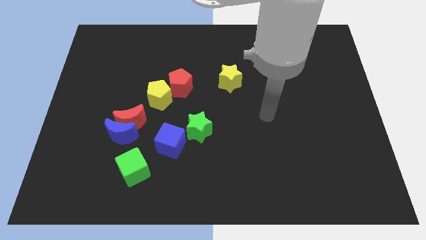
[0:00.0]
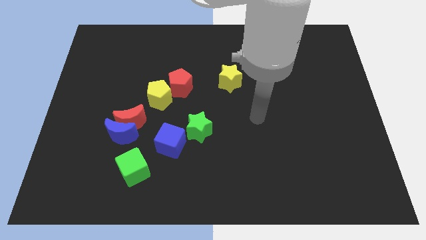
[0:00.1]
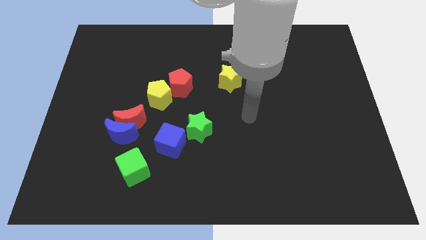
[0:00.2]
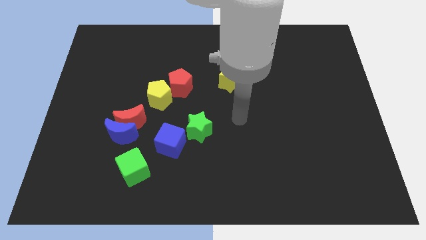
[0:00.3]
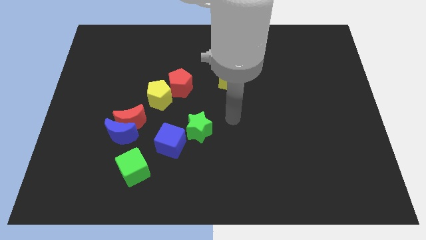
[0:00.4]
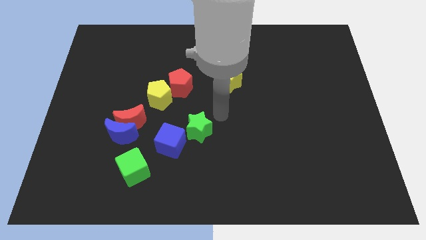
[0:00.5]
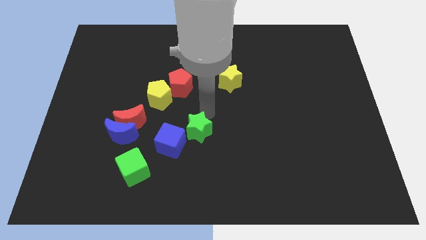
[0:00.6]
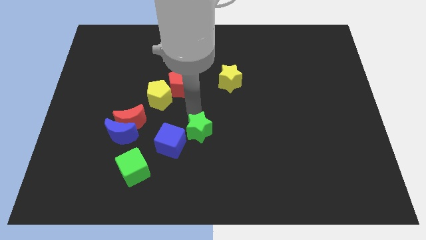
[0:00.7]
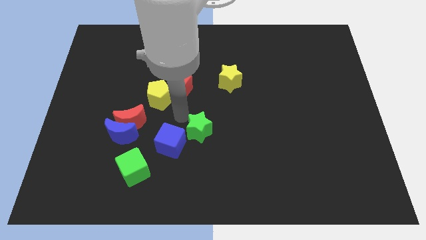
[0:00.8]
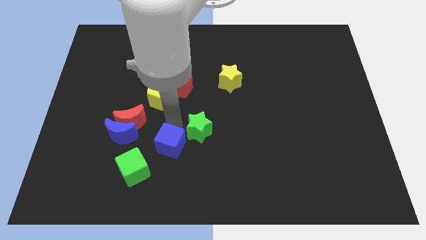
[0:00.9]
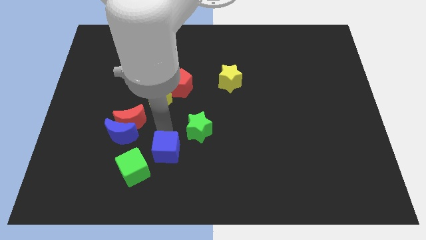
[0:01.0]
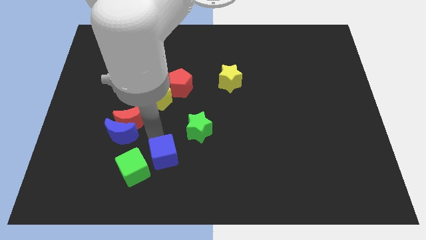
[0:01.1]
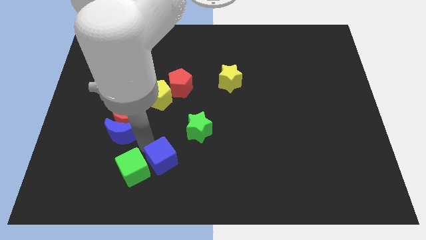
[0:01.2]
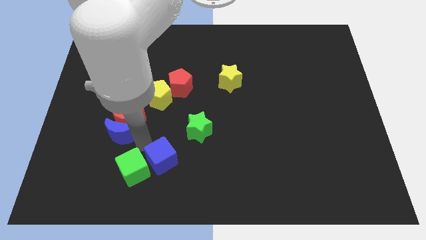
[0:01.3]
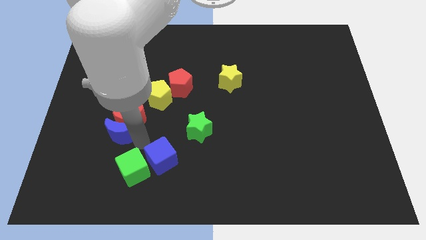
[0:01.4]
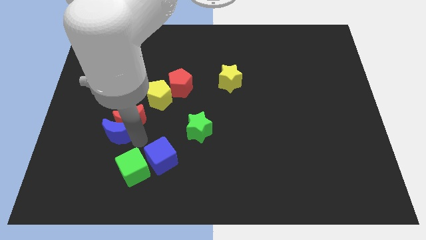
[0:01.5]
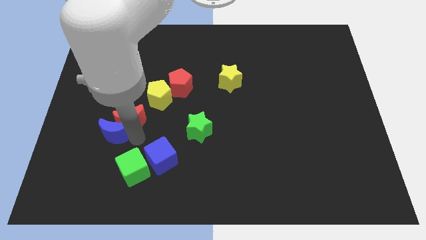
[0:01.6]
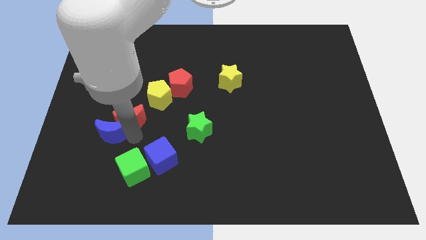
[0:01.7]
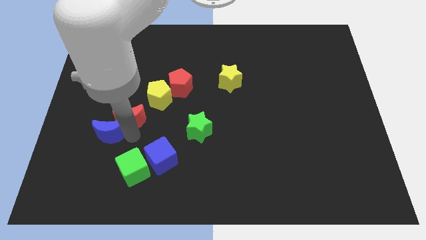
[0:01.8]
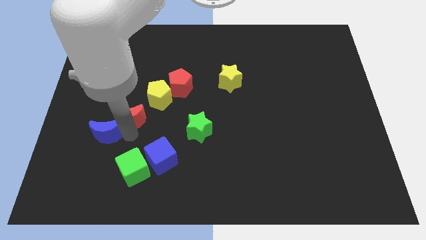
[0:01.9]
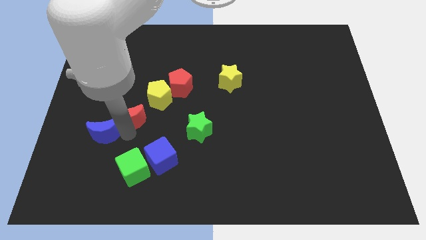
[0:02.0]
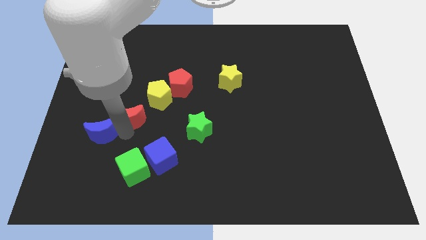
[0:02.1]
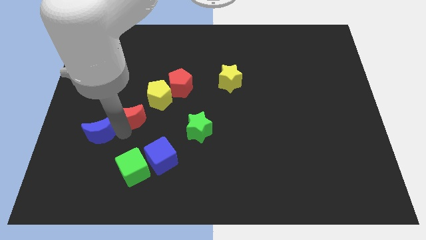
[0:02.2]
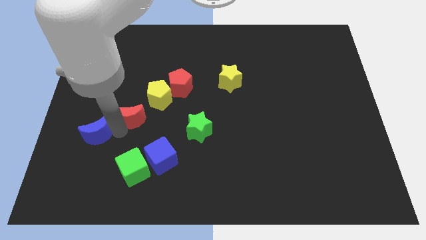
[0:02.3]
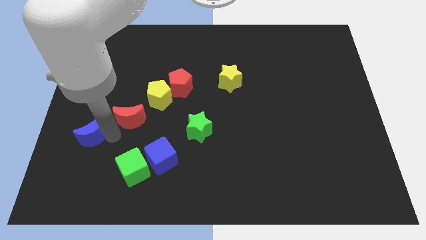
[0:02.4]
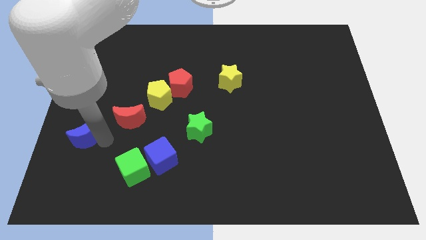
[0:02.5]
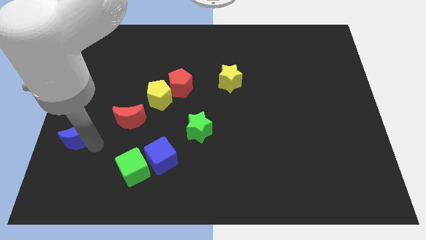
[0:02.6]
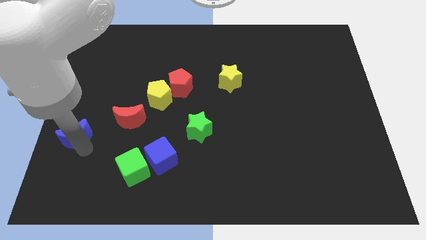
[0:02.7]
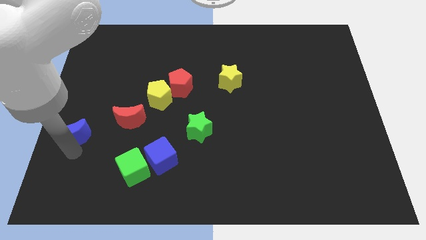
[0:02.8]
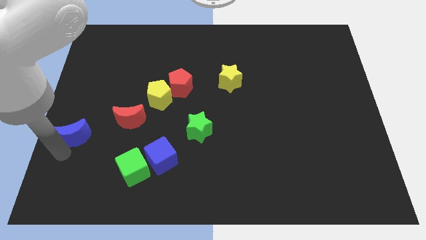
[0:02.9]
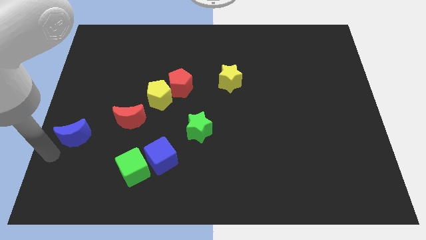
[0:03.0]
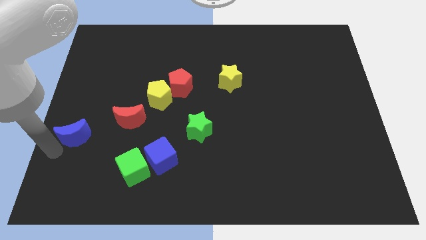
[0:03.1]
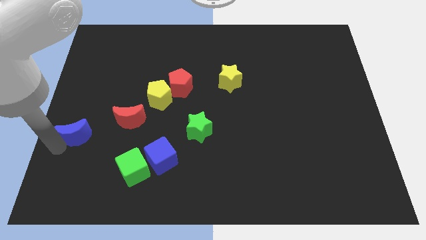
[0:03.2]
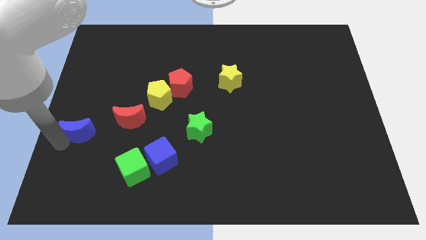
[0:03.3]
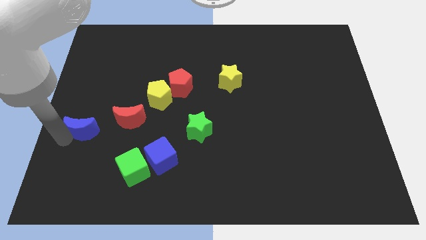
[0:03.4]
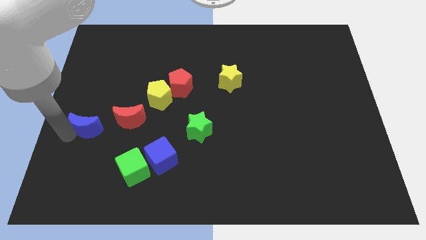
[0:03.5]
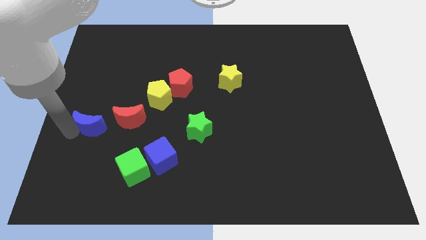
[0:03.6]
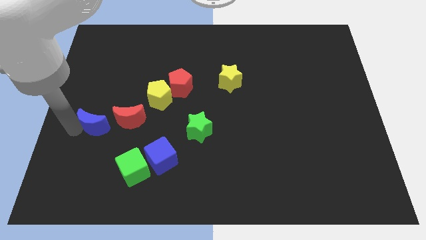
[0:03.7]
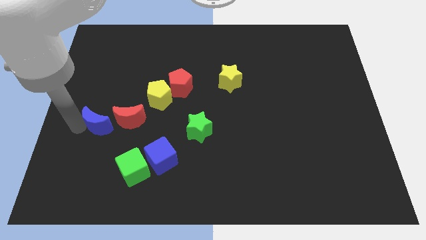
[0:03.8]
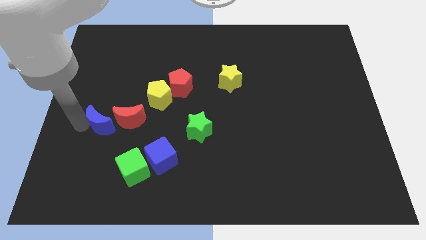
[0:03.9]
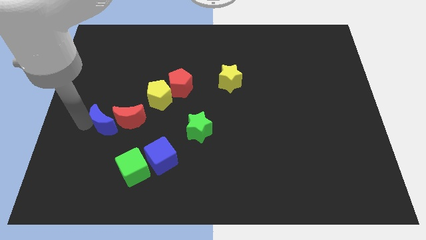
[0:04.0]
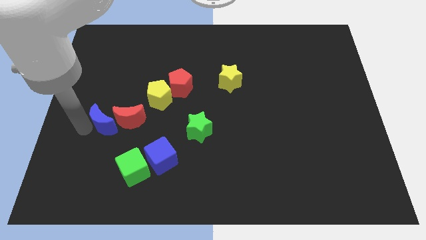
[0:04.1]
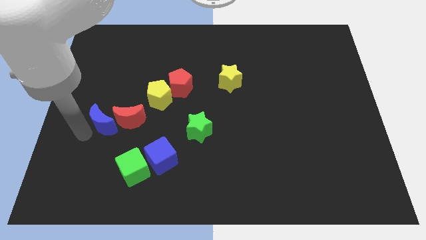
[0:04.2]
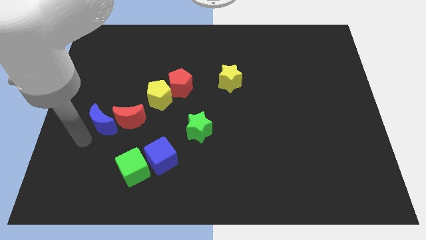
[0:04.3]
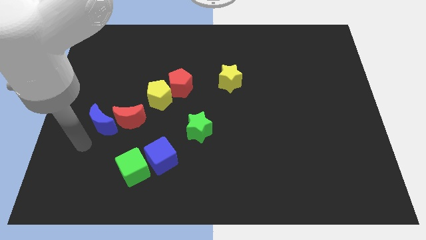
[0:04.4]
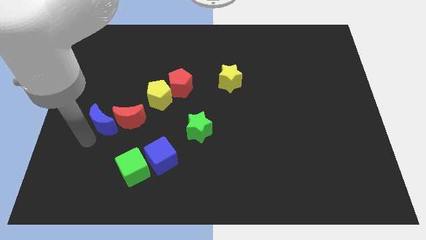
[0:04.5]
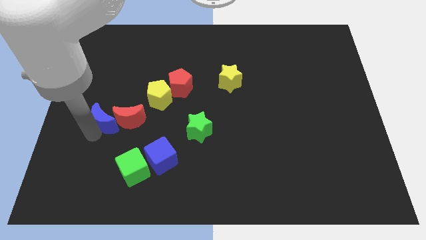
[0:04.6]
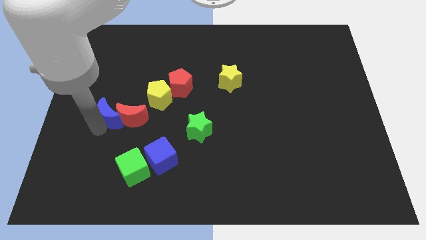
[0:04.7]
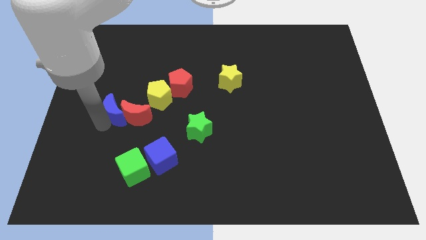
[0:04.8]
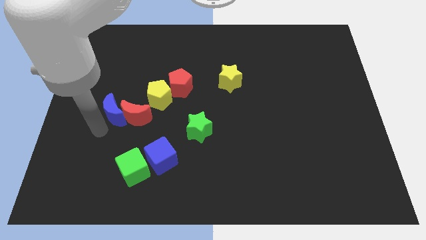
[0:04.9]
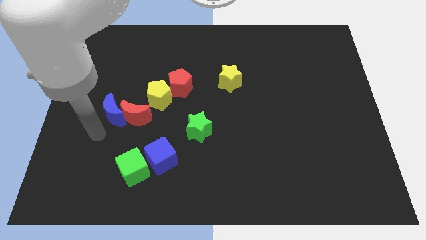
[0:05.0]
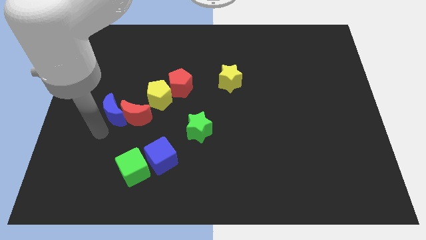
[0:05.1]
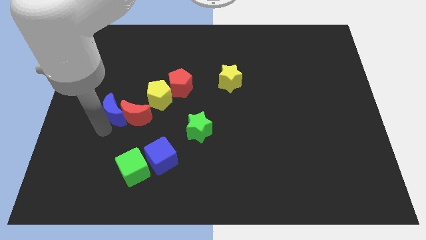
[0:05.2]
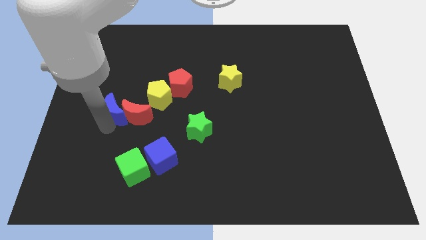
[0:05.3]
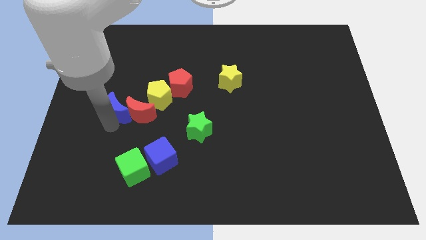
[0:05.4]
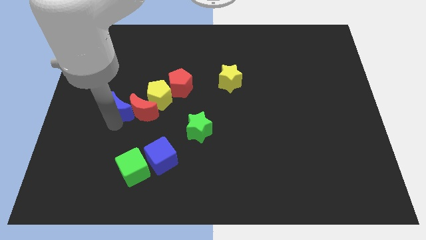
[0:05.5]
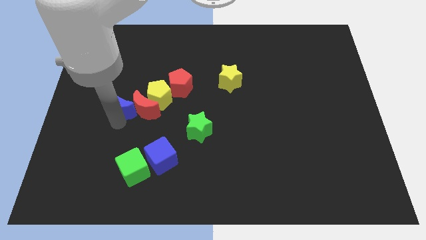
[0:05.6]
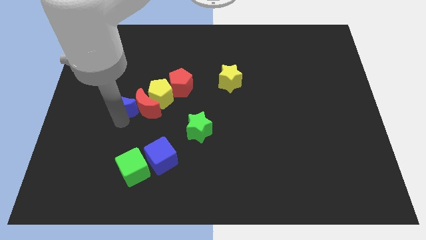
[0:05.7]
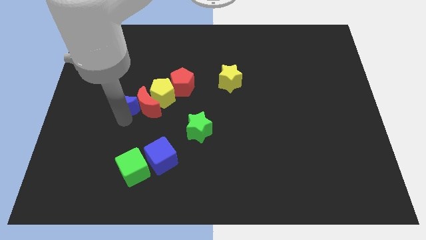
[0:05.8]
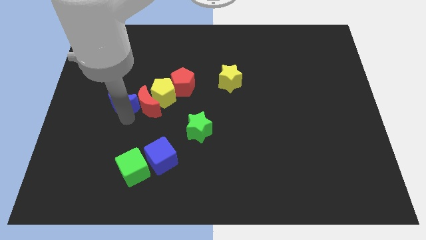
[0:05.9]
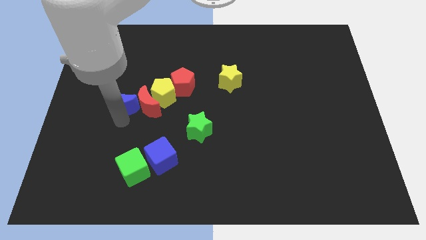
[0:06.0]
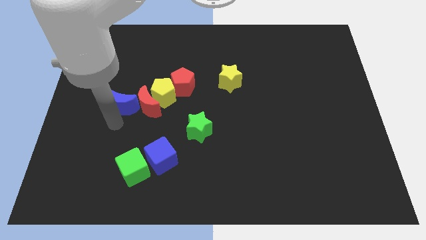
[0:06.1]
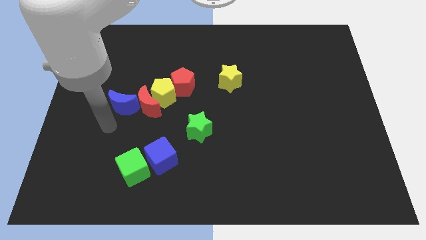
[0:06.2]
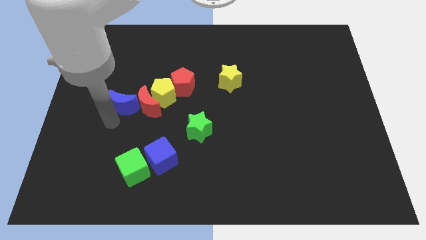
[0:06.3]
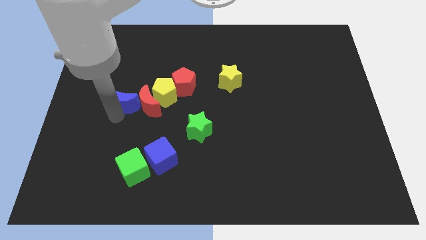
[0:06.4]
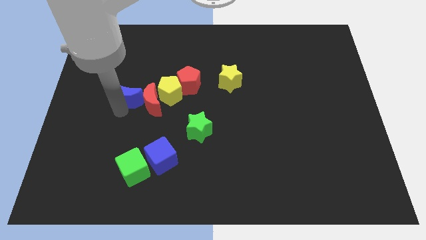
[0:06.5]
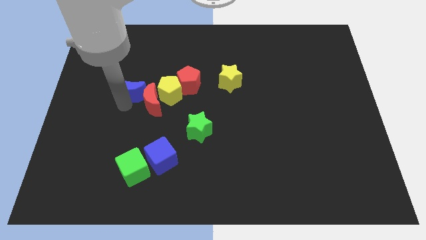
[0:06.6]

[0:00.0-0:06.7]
put the blue moon left of the red pentagon
